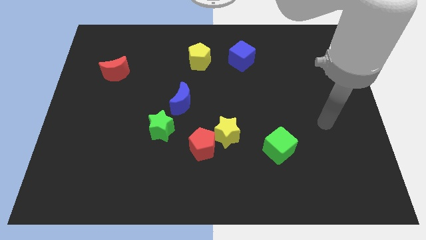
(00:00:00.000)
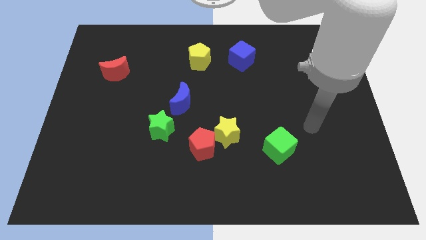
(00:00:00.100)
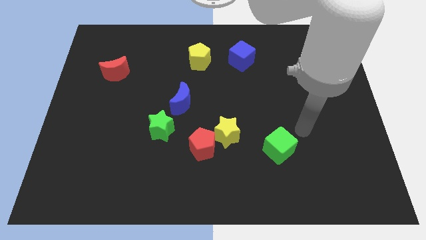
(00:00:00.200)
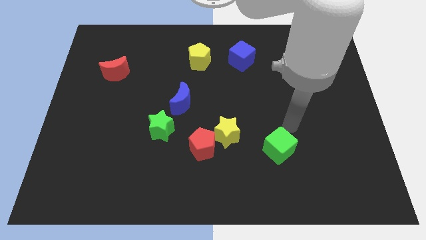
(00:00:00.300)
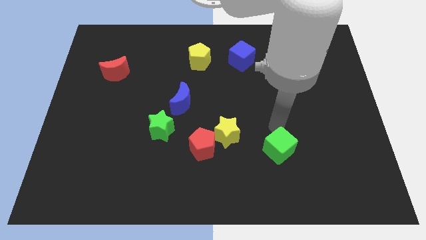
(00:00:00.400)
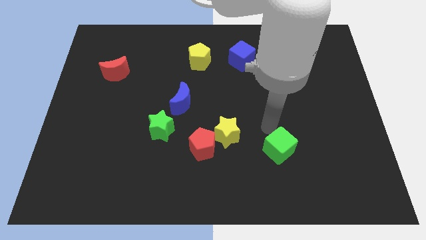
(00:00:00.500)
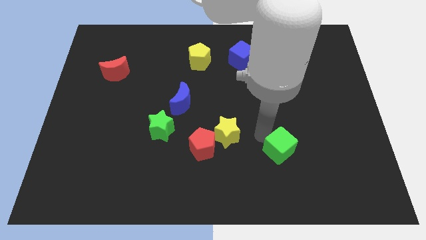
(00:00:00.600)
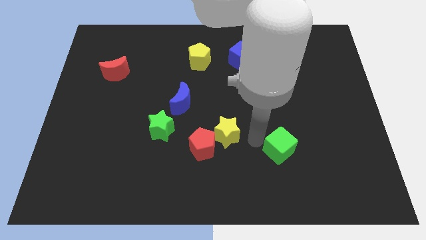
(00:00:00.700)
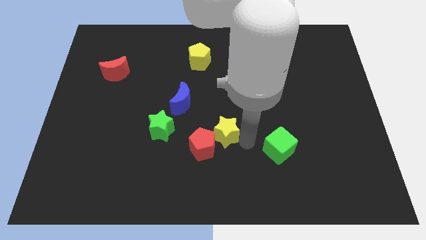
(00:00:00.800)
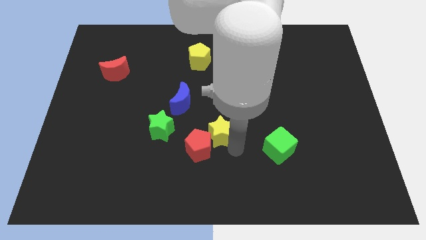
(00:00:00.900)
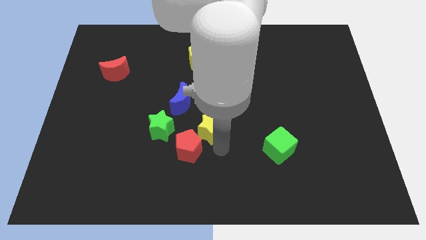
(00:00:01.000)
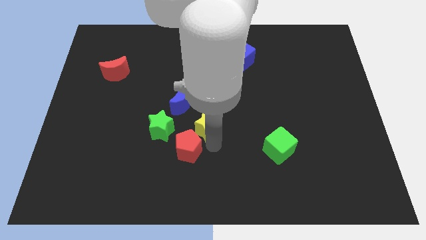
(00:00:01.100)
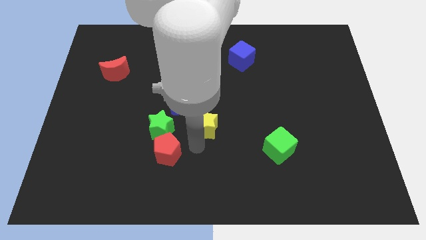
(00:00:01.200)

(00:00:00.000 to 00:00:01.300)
separate the yellow star from the red pentagon

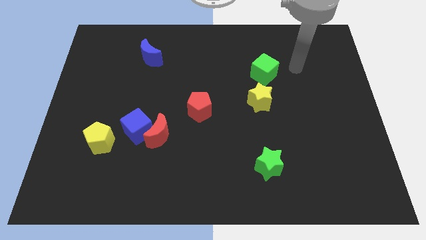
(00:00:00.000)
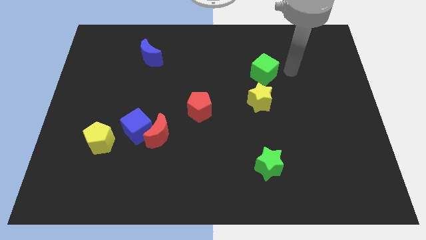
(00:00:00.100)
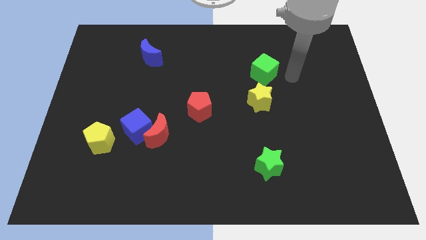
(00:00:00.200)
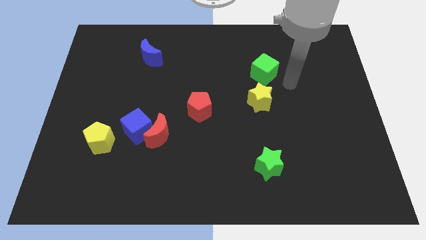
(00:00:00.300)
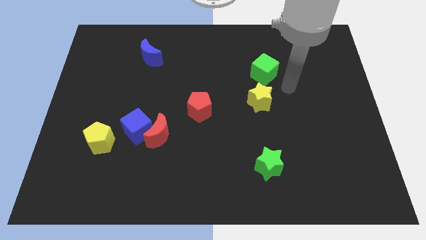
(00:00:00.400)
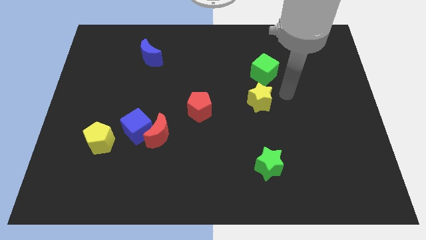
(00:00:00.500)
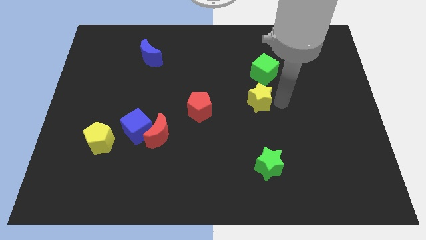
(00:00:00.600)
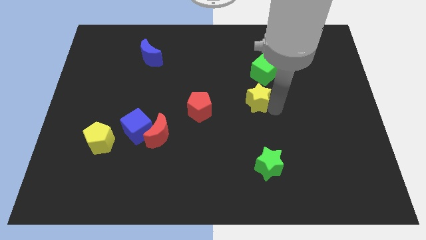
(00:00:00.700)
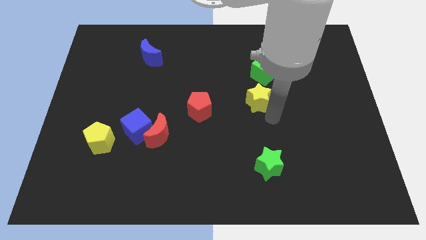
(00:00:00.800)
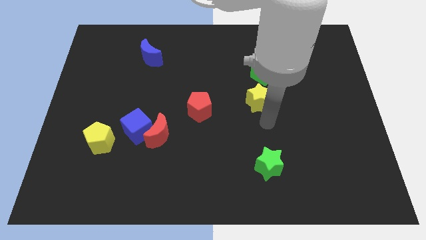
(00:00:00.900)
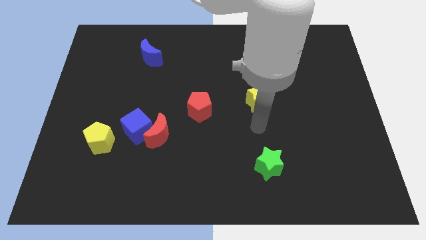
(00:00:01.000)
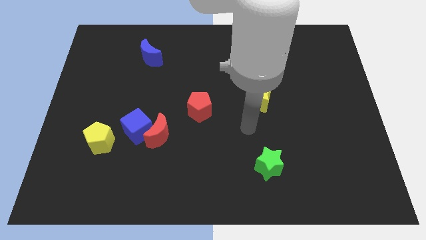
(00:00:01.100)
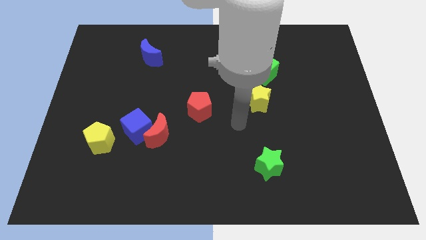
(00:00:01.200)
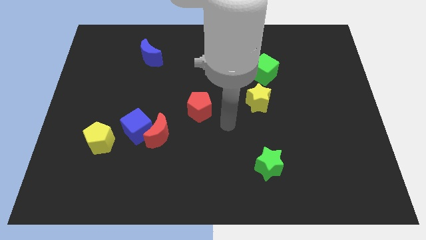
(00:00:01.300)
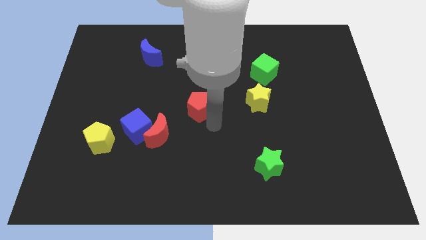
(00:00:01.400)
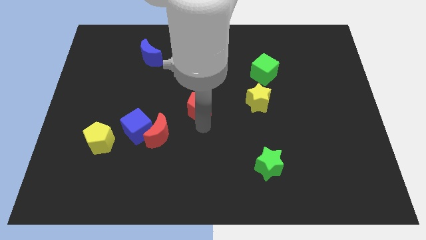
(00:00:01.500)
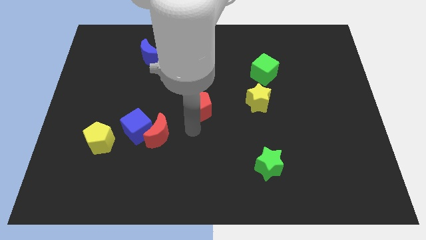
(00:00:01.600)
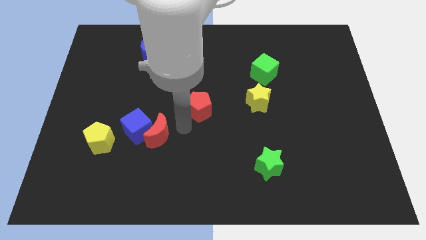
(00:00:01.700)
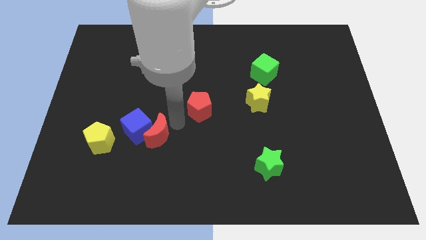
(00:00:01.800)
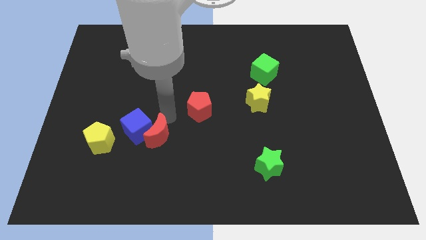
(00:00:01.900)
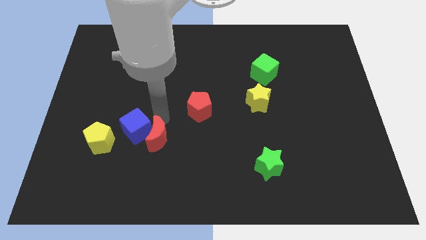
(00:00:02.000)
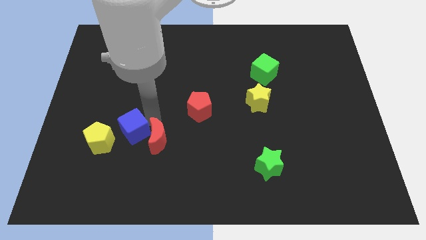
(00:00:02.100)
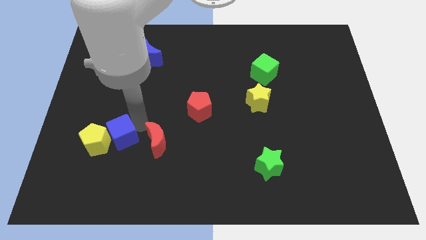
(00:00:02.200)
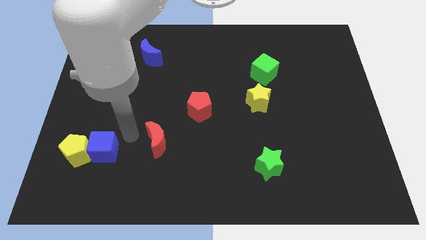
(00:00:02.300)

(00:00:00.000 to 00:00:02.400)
move the red moon away from the blue cube

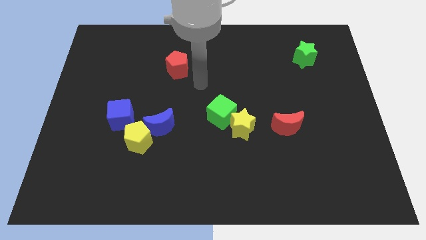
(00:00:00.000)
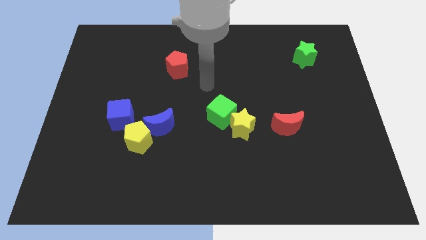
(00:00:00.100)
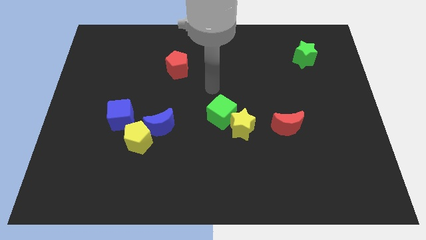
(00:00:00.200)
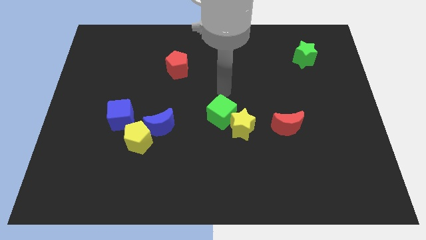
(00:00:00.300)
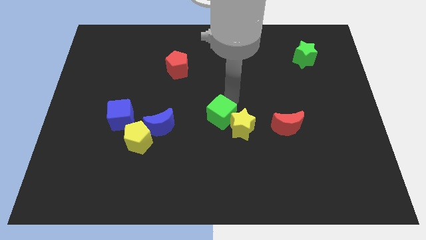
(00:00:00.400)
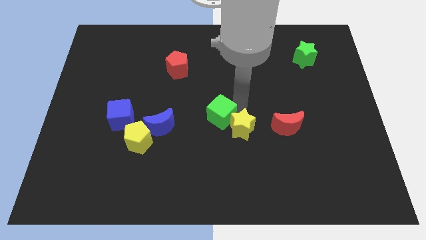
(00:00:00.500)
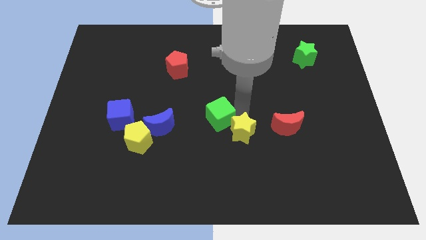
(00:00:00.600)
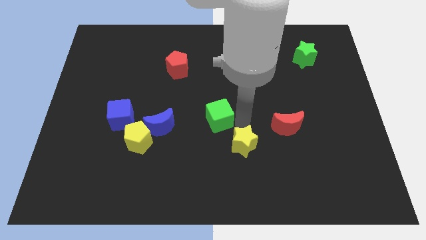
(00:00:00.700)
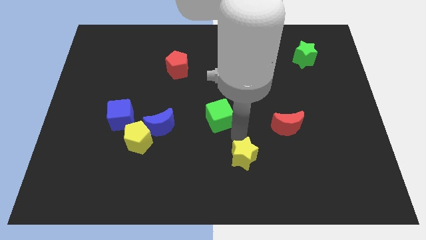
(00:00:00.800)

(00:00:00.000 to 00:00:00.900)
move the green cube away from the yellow star

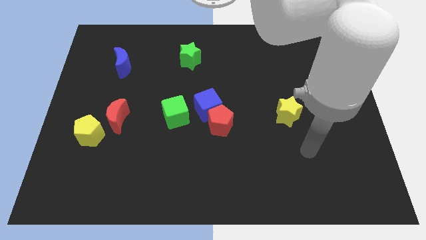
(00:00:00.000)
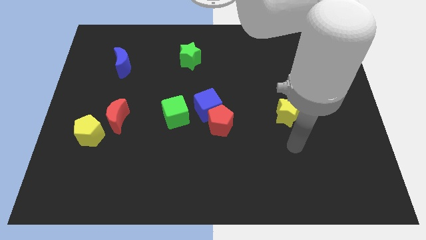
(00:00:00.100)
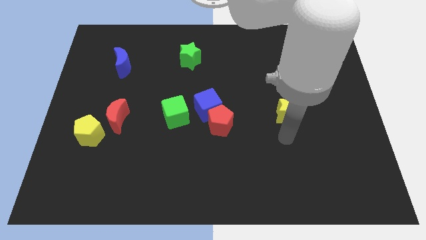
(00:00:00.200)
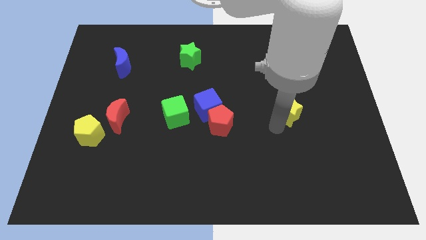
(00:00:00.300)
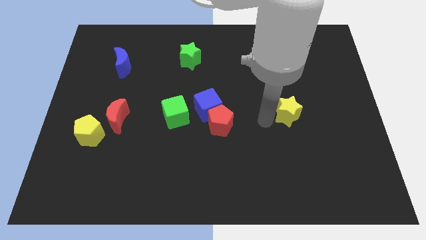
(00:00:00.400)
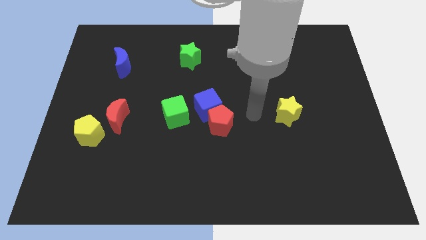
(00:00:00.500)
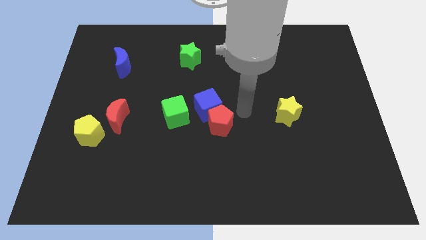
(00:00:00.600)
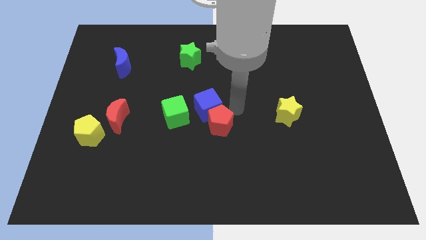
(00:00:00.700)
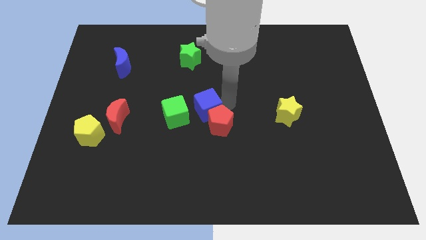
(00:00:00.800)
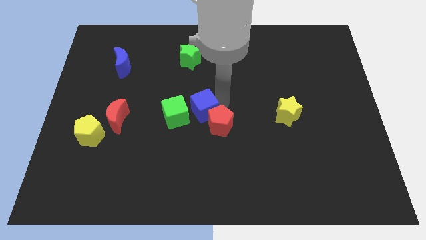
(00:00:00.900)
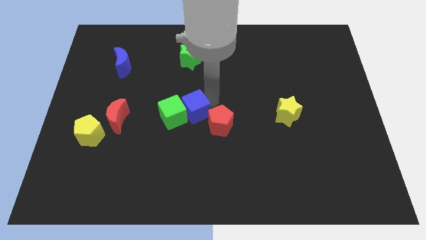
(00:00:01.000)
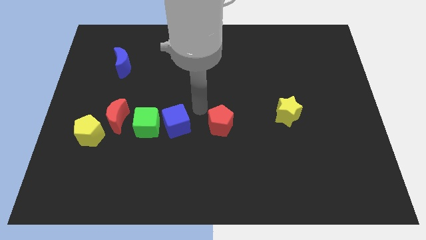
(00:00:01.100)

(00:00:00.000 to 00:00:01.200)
separate the red pentagon from the blue cube

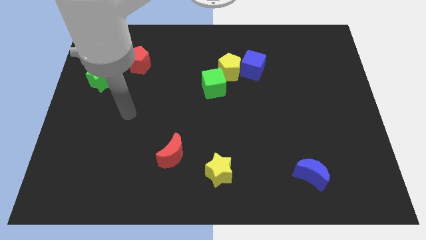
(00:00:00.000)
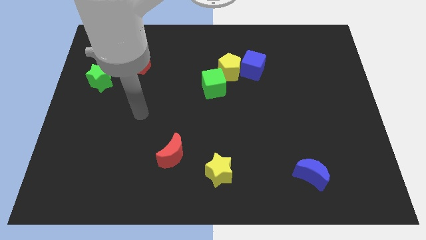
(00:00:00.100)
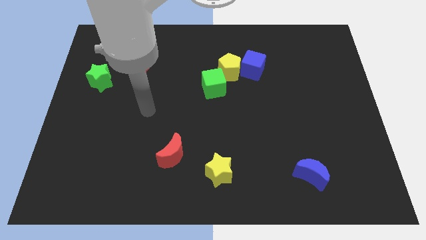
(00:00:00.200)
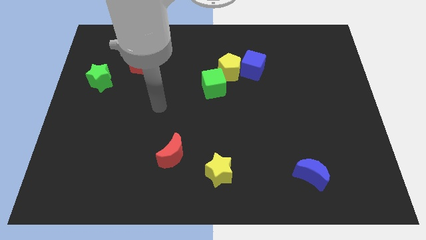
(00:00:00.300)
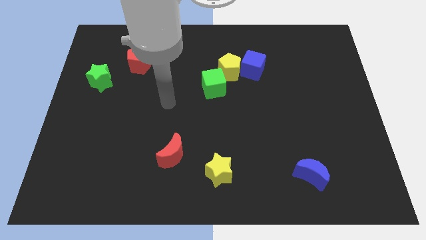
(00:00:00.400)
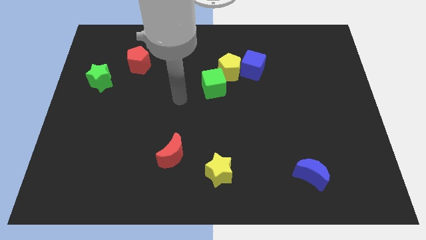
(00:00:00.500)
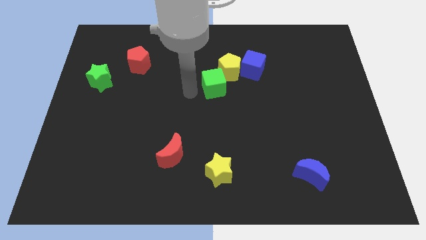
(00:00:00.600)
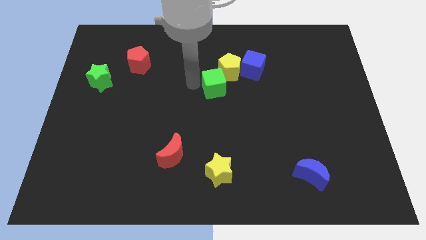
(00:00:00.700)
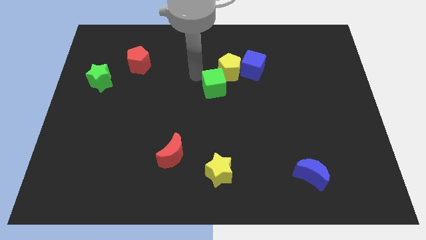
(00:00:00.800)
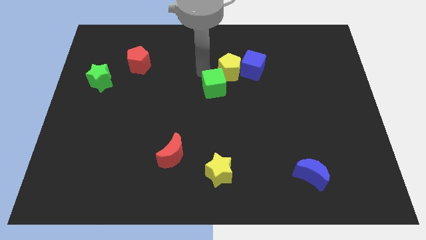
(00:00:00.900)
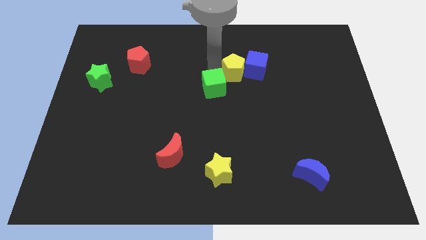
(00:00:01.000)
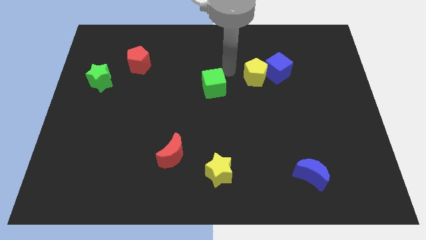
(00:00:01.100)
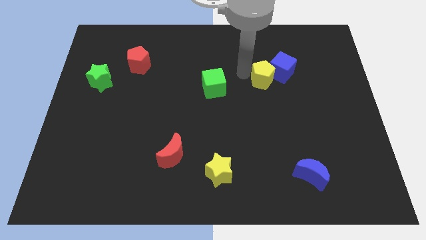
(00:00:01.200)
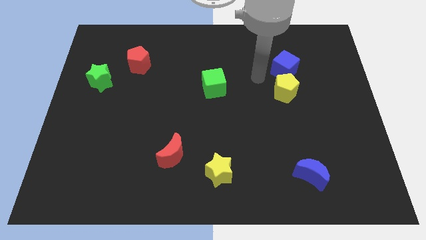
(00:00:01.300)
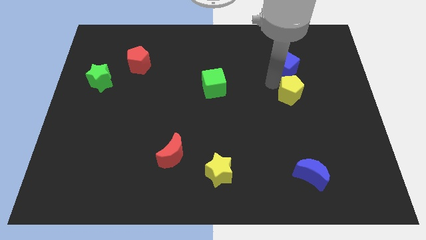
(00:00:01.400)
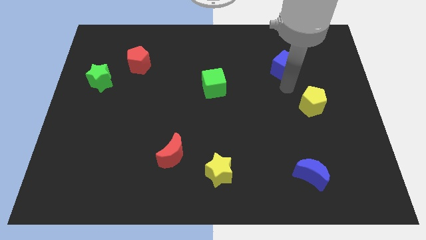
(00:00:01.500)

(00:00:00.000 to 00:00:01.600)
pull the blue cube apart from the yellow pentagon

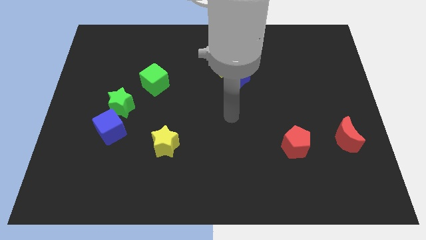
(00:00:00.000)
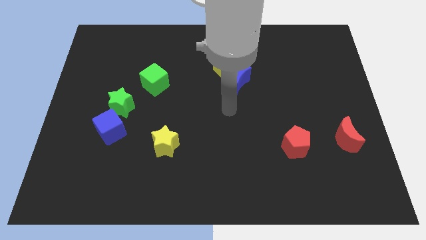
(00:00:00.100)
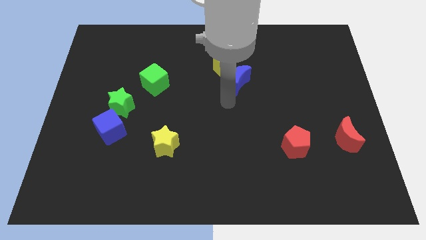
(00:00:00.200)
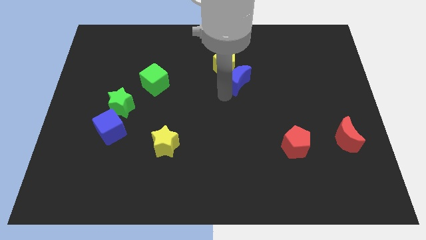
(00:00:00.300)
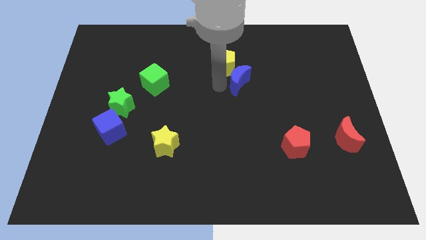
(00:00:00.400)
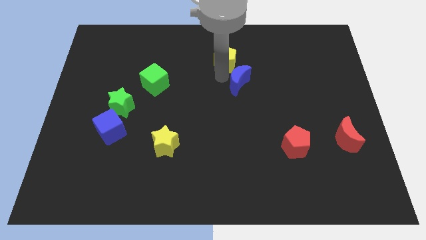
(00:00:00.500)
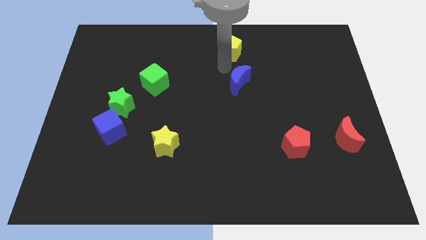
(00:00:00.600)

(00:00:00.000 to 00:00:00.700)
pull the blue moon apart from the yellow pentagon

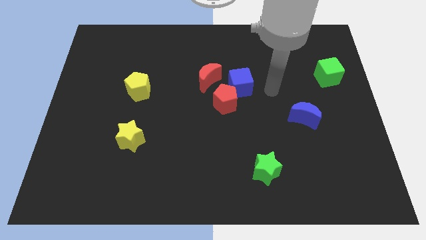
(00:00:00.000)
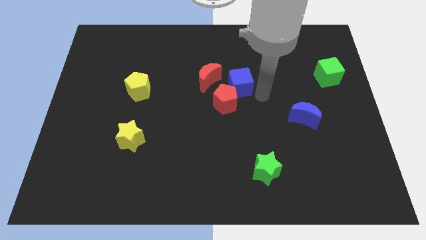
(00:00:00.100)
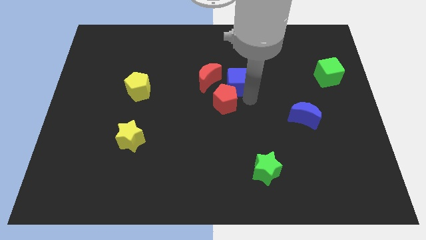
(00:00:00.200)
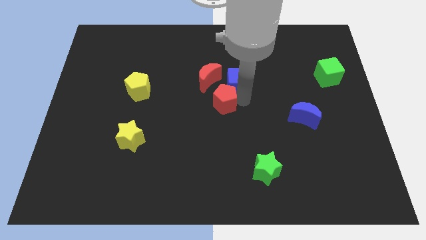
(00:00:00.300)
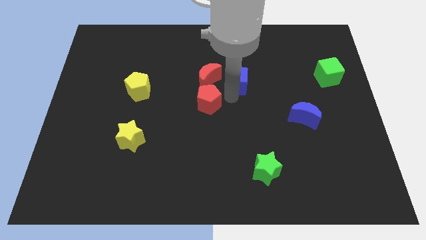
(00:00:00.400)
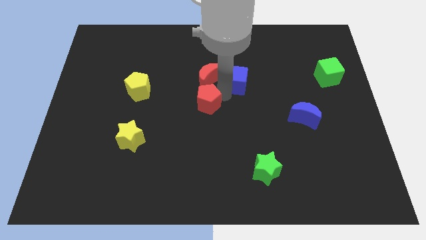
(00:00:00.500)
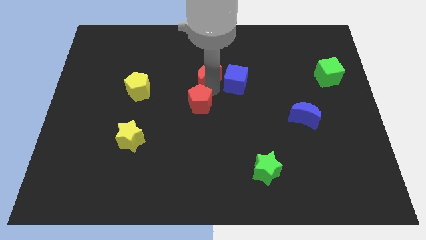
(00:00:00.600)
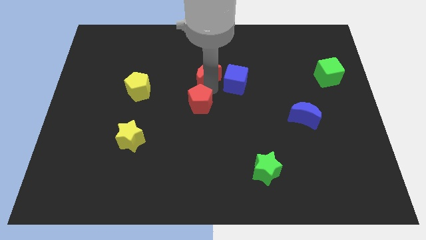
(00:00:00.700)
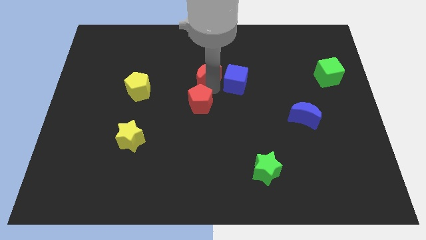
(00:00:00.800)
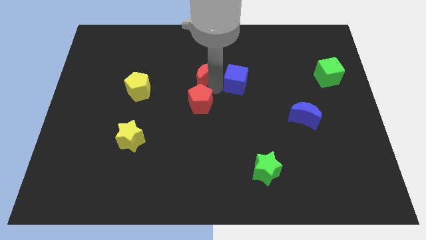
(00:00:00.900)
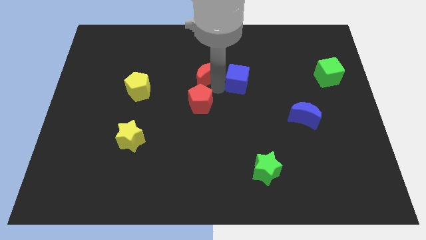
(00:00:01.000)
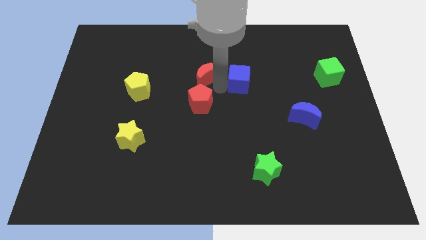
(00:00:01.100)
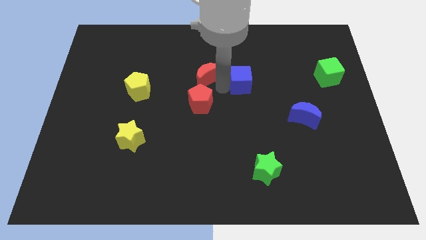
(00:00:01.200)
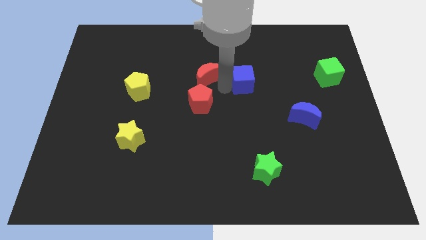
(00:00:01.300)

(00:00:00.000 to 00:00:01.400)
pull the blue cube apart from the red pentagon and red moon
